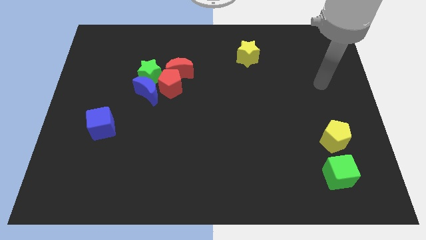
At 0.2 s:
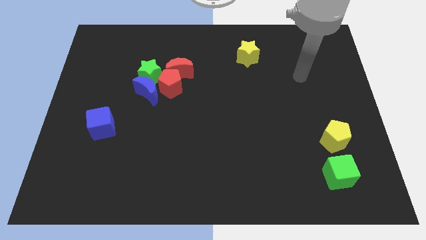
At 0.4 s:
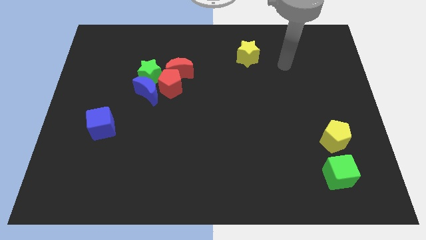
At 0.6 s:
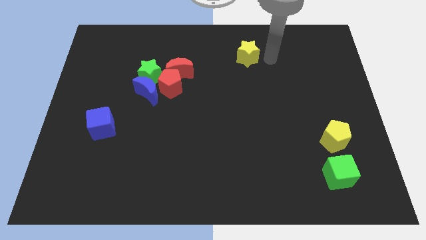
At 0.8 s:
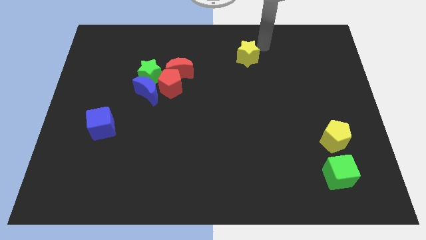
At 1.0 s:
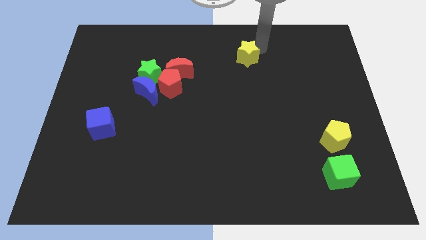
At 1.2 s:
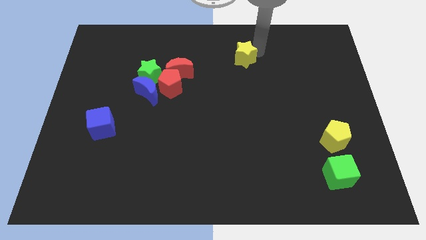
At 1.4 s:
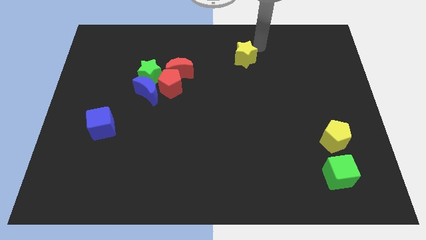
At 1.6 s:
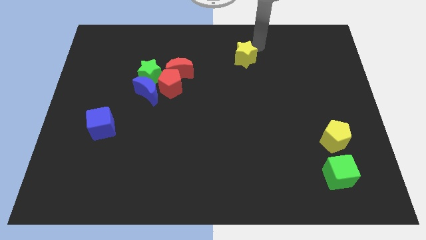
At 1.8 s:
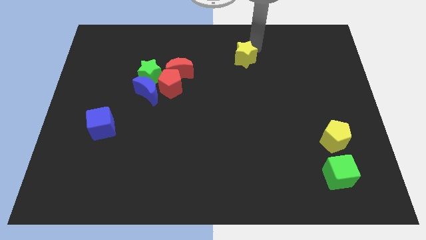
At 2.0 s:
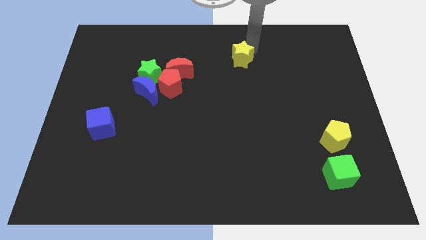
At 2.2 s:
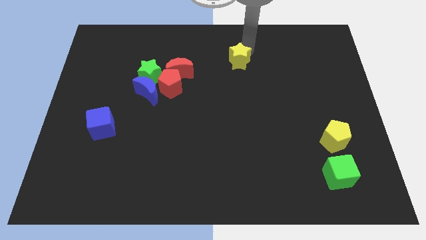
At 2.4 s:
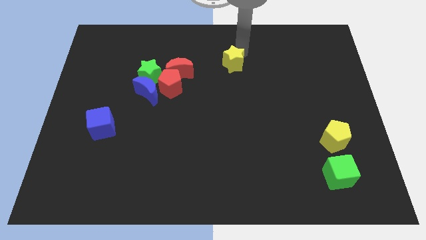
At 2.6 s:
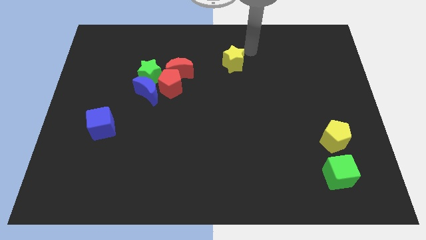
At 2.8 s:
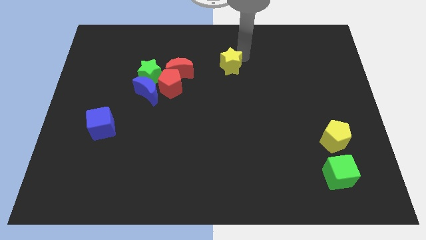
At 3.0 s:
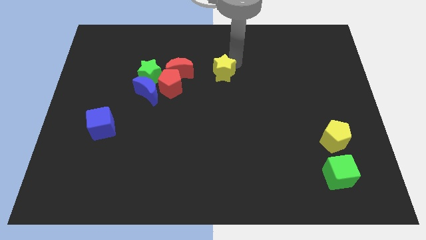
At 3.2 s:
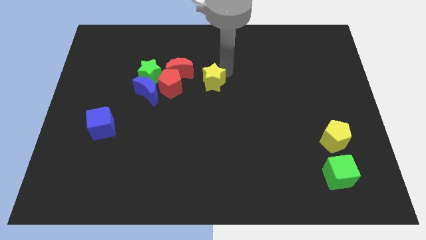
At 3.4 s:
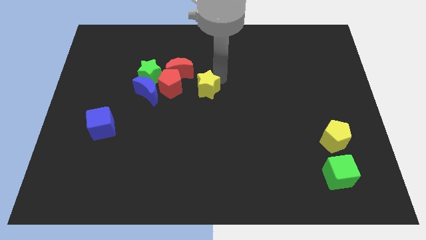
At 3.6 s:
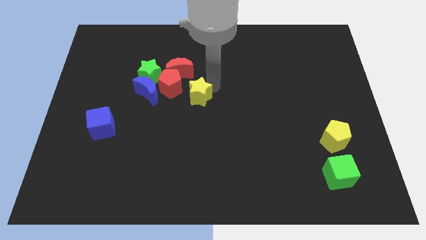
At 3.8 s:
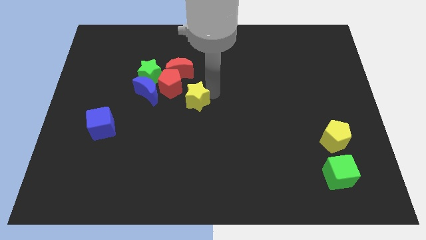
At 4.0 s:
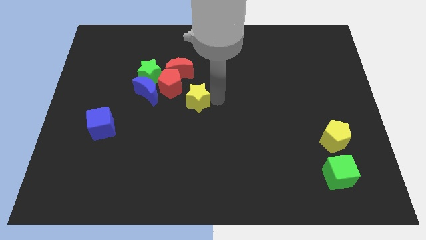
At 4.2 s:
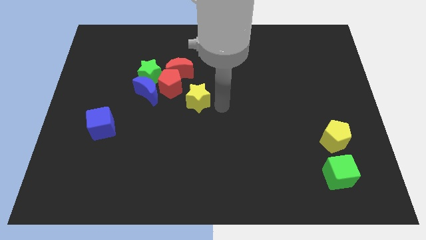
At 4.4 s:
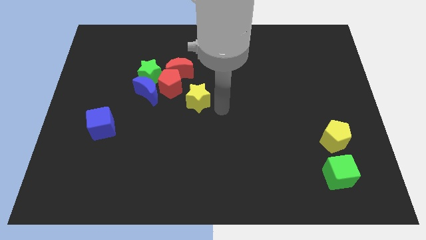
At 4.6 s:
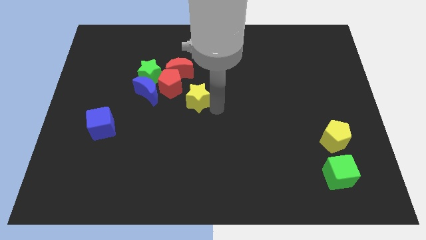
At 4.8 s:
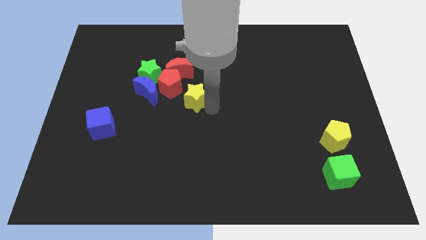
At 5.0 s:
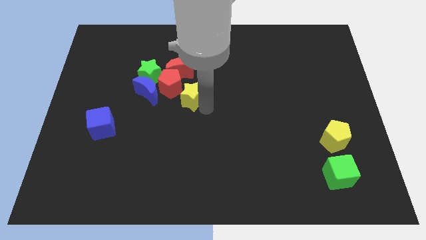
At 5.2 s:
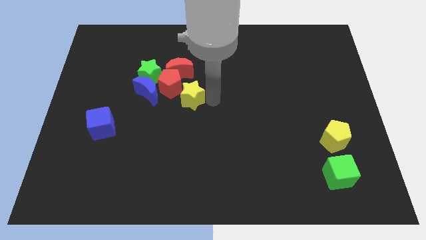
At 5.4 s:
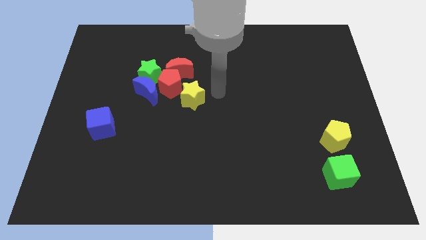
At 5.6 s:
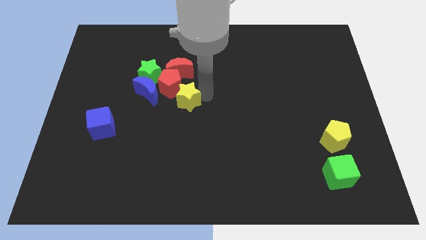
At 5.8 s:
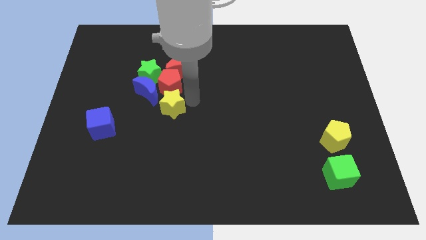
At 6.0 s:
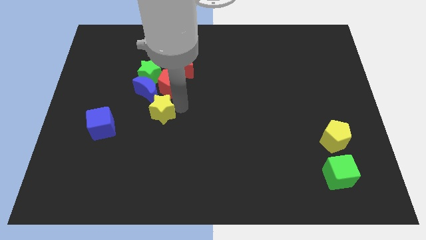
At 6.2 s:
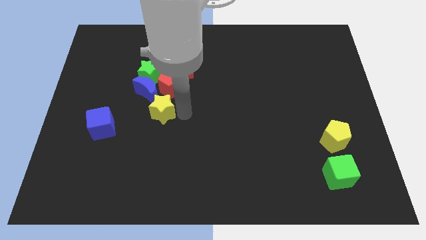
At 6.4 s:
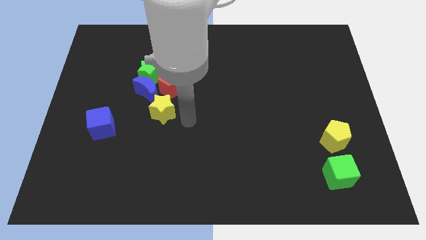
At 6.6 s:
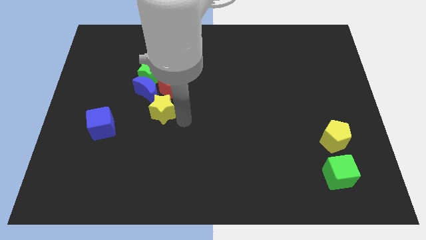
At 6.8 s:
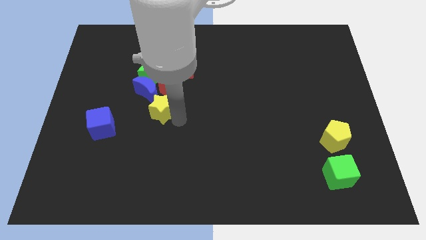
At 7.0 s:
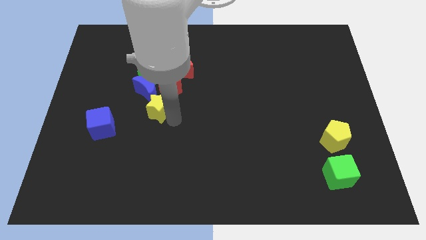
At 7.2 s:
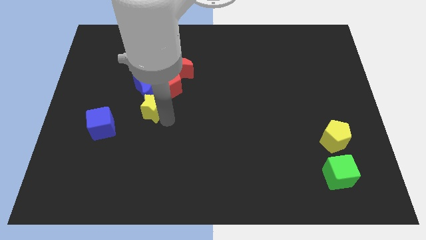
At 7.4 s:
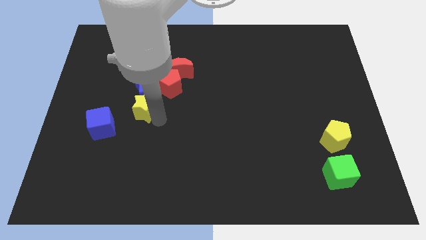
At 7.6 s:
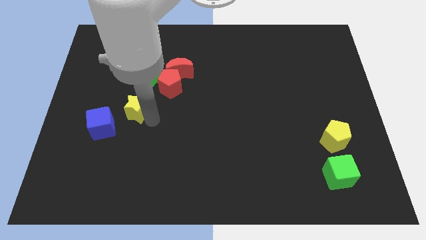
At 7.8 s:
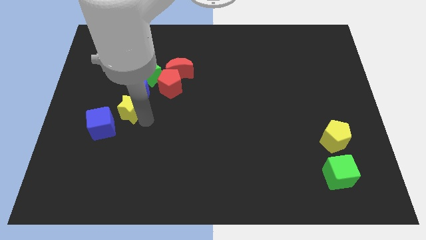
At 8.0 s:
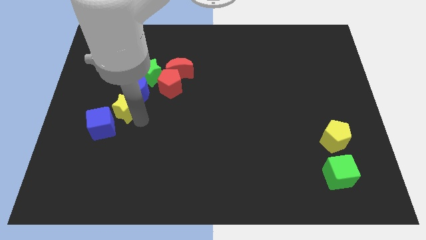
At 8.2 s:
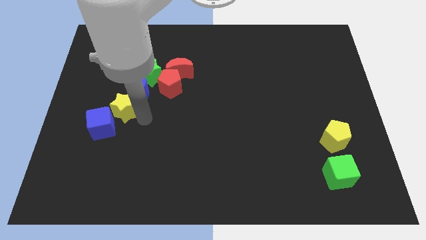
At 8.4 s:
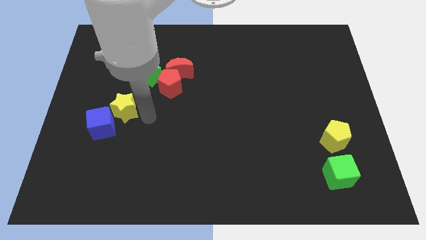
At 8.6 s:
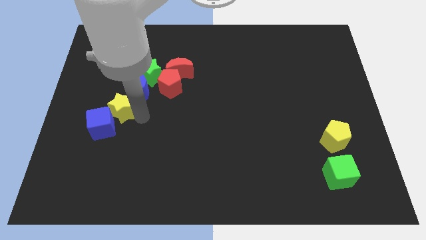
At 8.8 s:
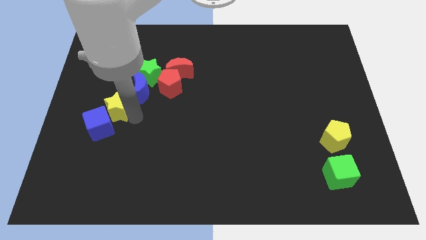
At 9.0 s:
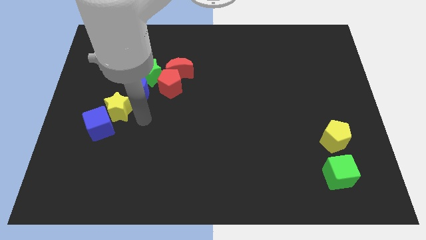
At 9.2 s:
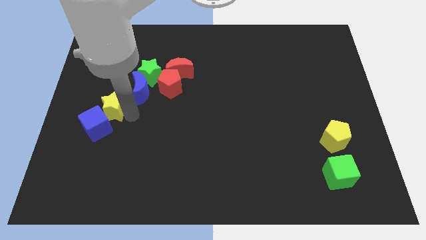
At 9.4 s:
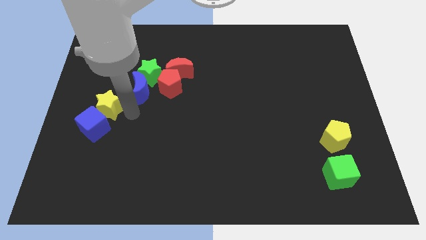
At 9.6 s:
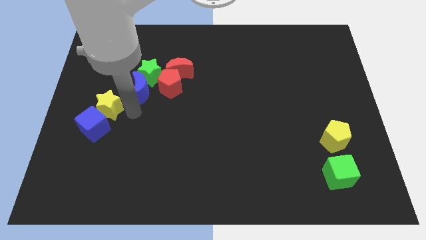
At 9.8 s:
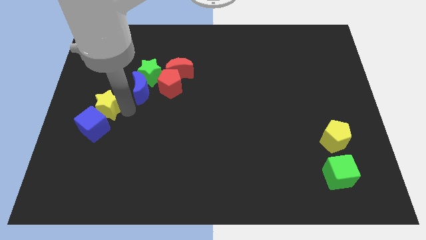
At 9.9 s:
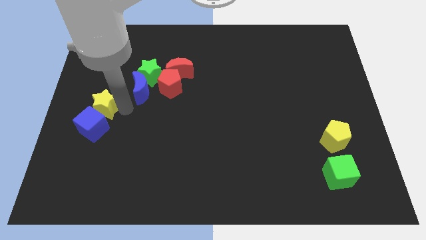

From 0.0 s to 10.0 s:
slide the yellow star to the center left

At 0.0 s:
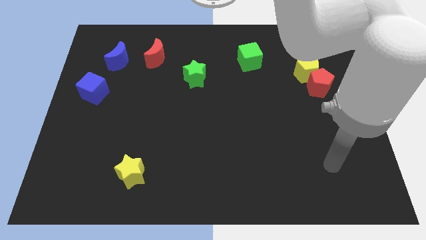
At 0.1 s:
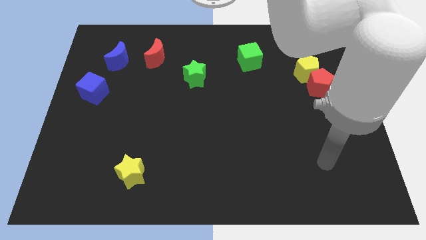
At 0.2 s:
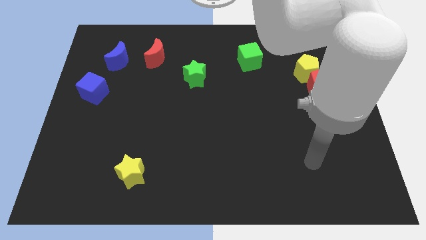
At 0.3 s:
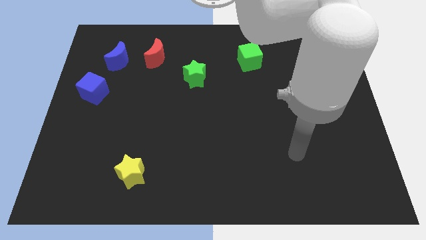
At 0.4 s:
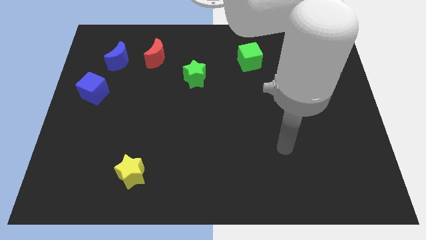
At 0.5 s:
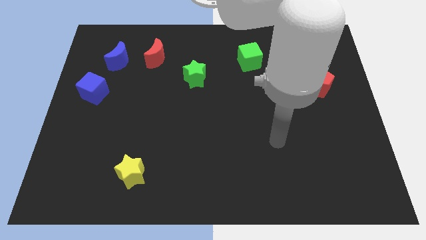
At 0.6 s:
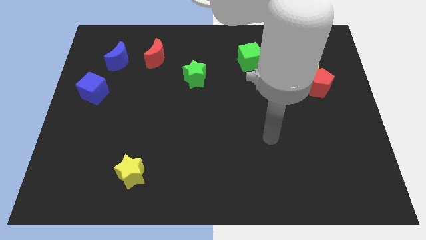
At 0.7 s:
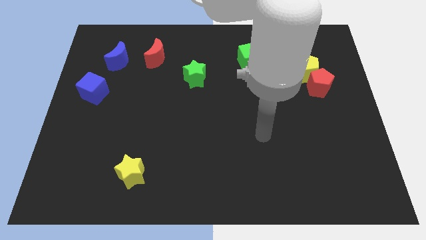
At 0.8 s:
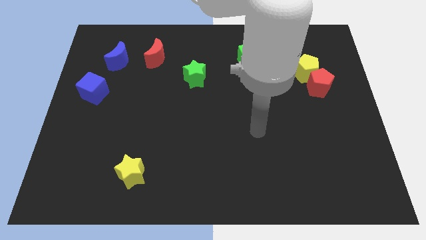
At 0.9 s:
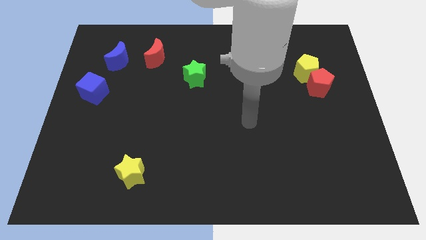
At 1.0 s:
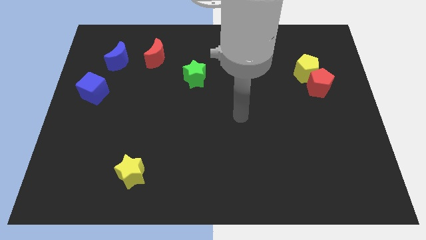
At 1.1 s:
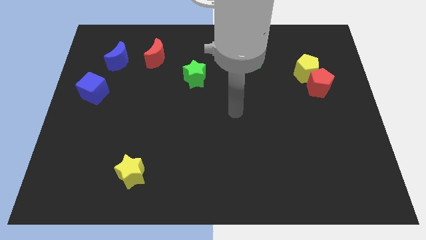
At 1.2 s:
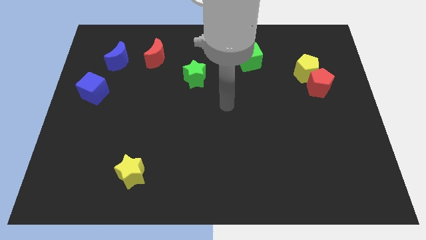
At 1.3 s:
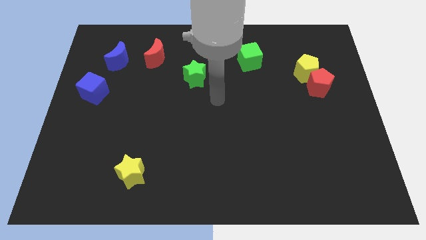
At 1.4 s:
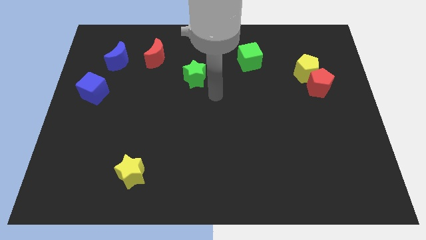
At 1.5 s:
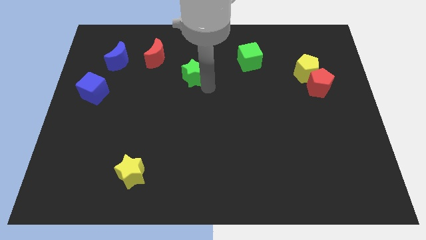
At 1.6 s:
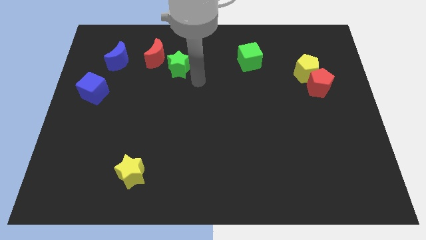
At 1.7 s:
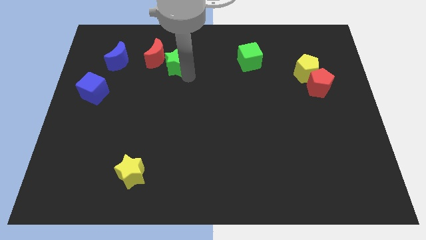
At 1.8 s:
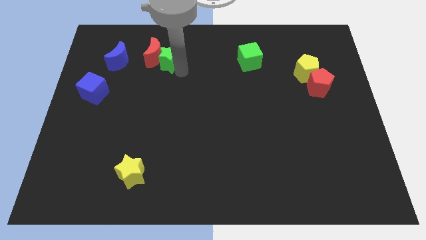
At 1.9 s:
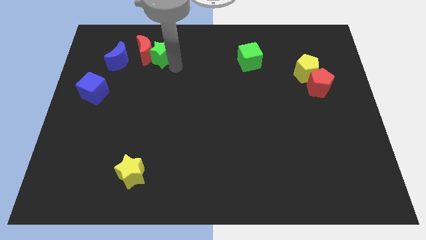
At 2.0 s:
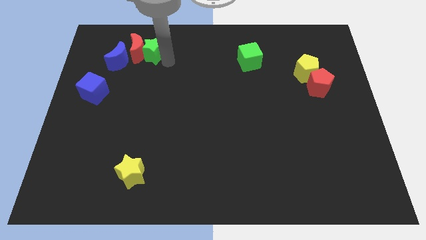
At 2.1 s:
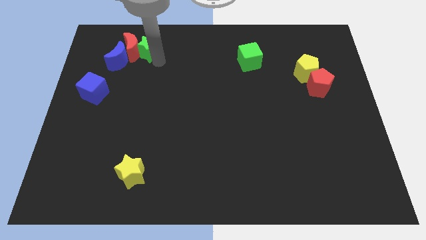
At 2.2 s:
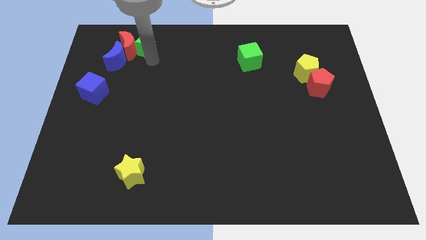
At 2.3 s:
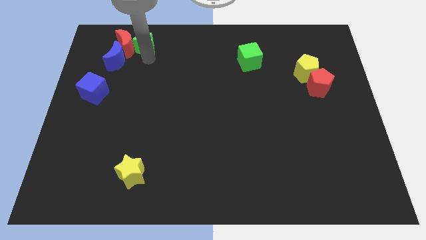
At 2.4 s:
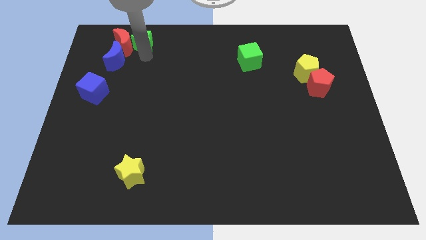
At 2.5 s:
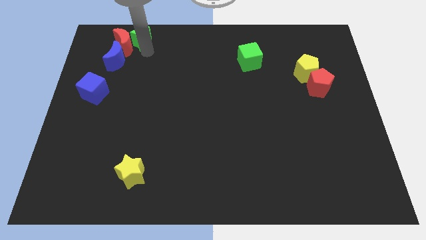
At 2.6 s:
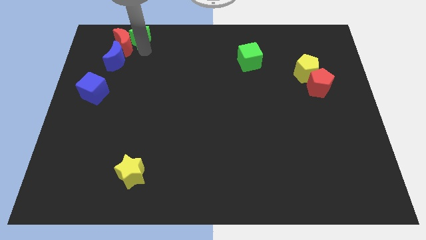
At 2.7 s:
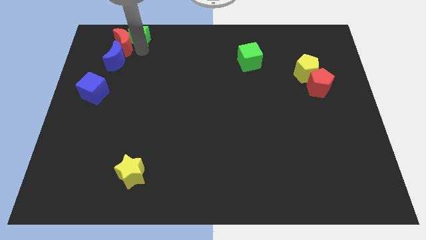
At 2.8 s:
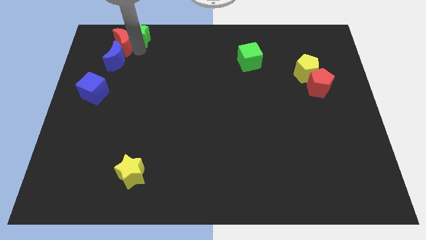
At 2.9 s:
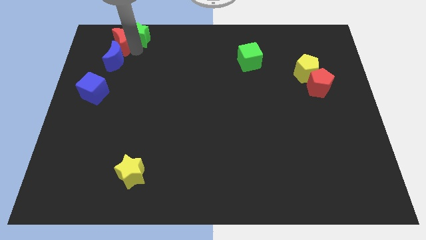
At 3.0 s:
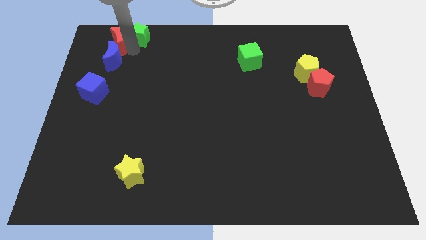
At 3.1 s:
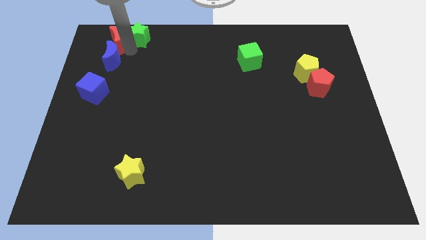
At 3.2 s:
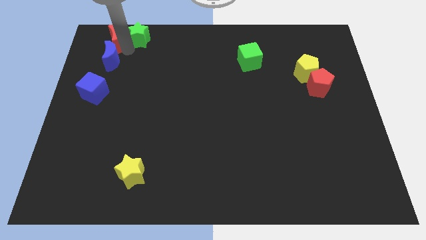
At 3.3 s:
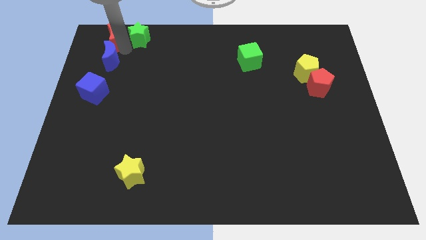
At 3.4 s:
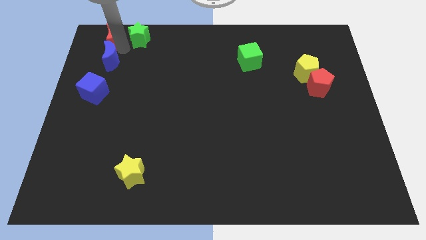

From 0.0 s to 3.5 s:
slide the red moon to the top left
